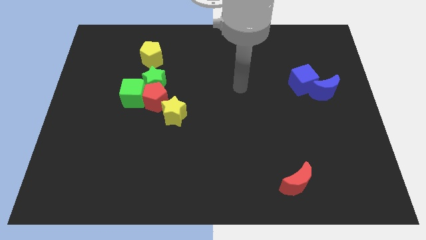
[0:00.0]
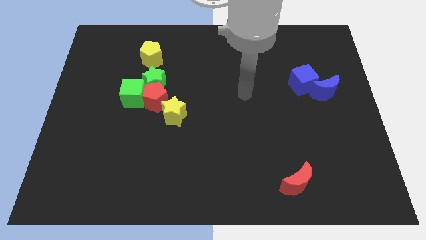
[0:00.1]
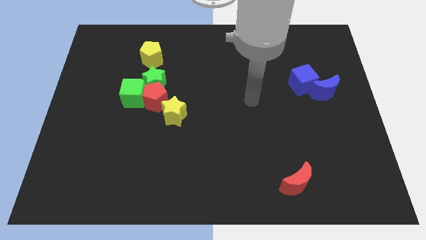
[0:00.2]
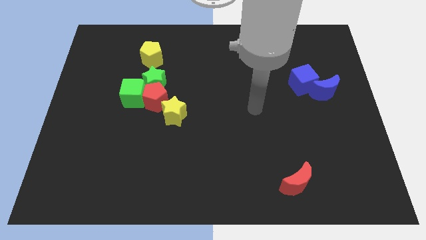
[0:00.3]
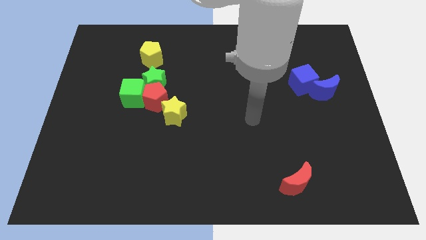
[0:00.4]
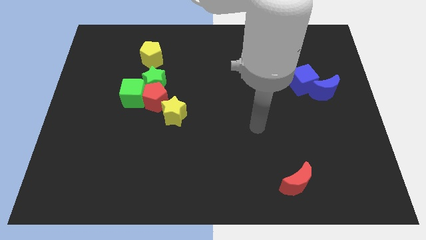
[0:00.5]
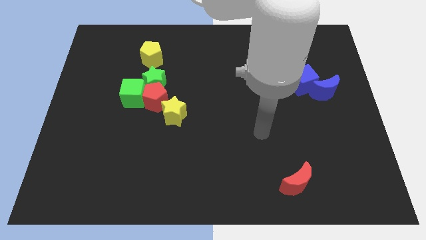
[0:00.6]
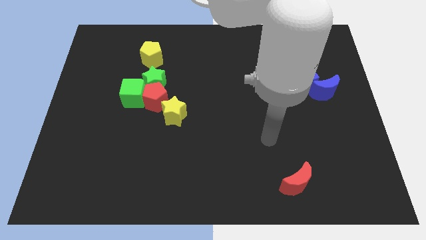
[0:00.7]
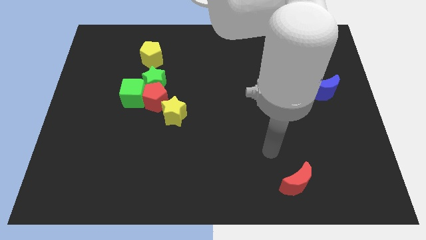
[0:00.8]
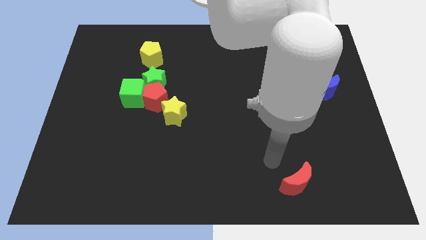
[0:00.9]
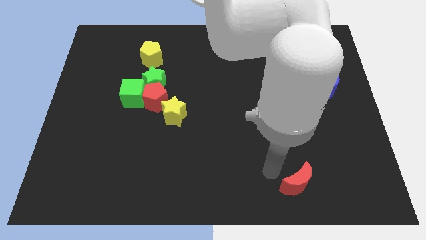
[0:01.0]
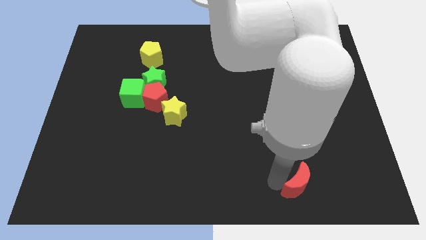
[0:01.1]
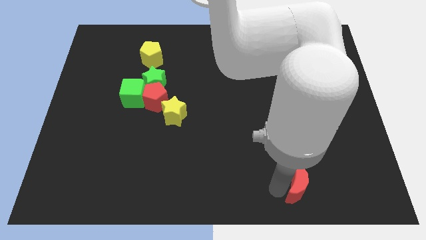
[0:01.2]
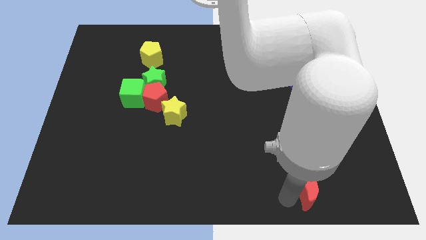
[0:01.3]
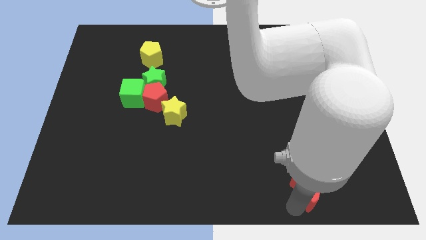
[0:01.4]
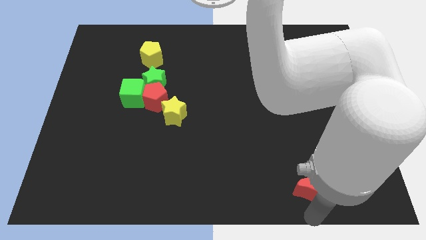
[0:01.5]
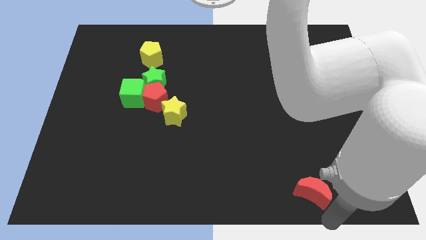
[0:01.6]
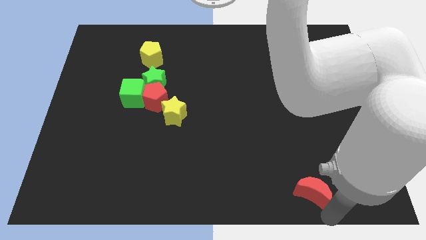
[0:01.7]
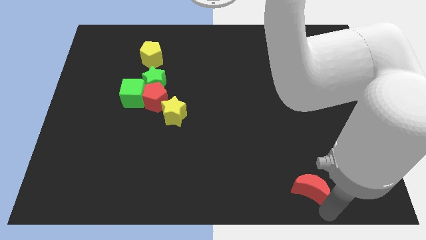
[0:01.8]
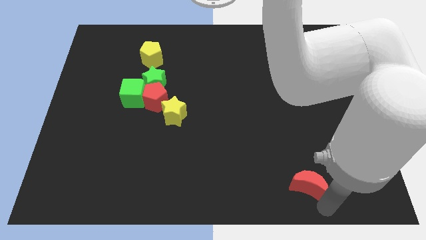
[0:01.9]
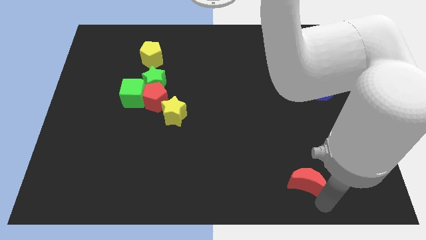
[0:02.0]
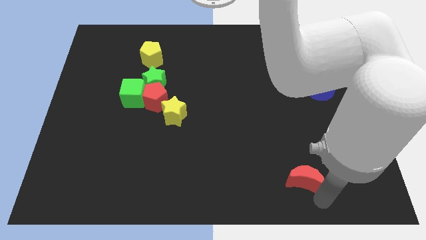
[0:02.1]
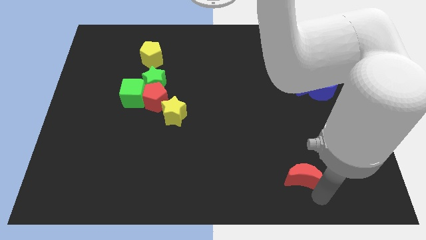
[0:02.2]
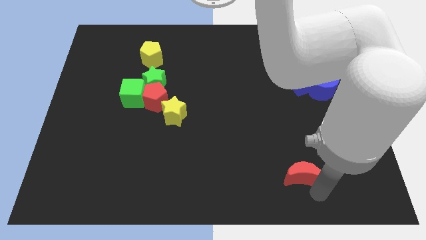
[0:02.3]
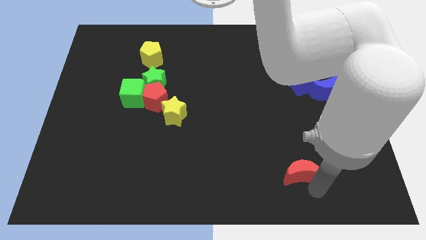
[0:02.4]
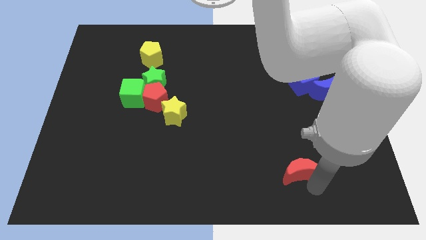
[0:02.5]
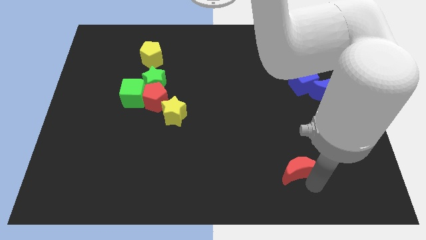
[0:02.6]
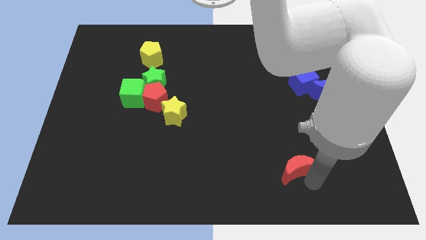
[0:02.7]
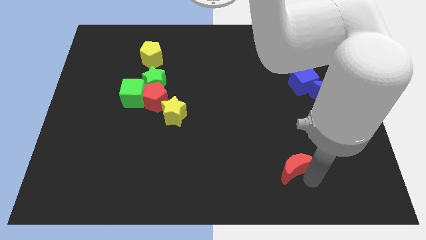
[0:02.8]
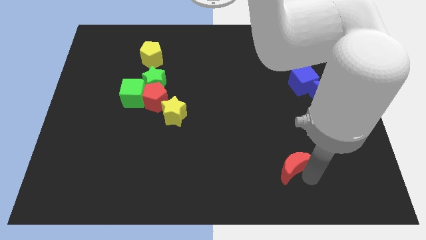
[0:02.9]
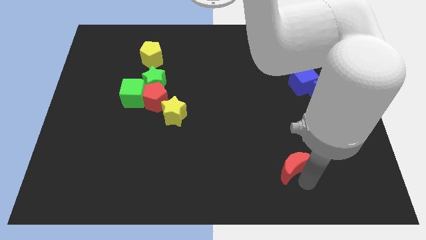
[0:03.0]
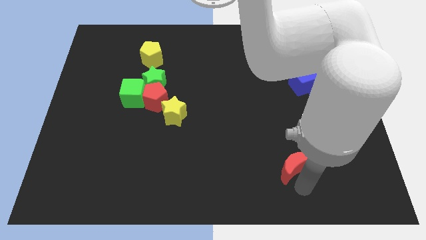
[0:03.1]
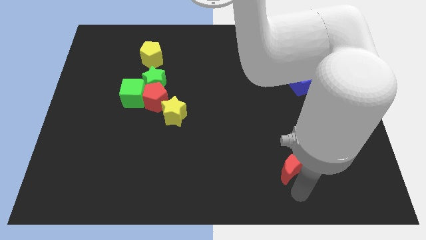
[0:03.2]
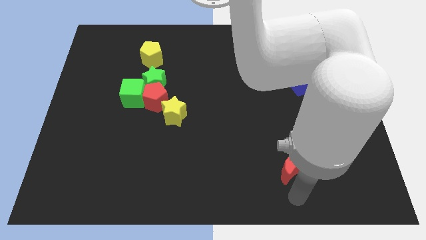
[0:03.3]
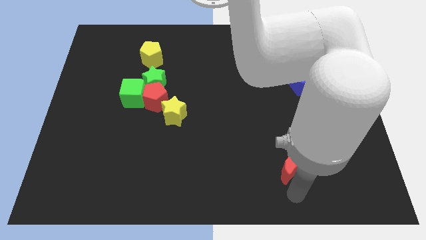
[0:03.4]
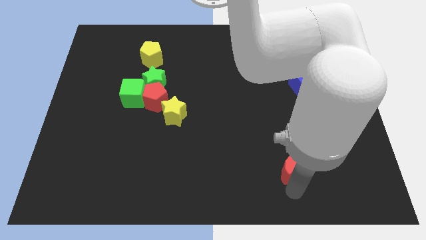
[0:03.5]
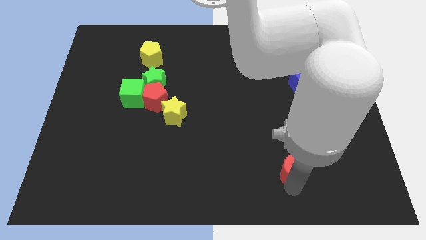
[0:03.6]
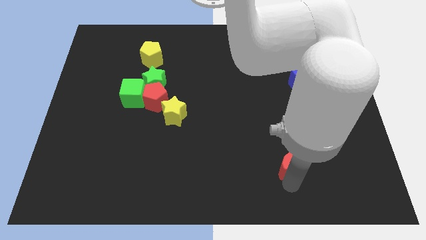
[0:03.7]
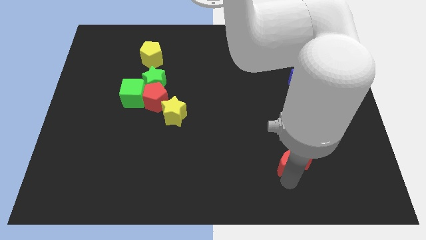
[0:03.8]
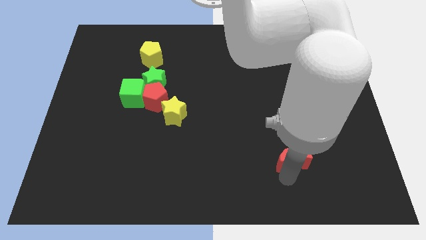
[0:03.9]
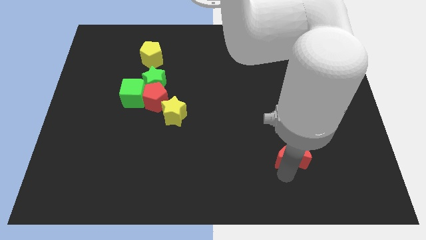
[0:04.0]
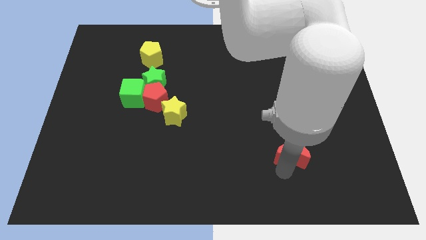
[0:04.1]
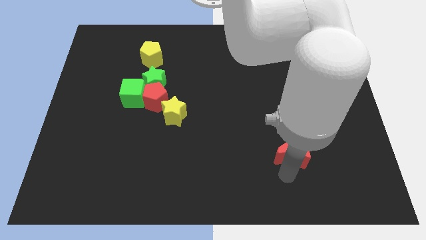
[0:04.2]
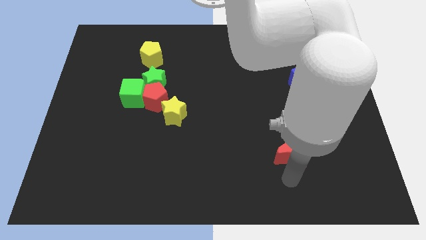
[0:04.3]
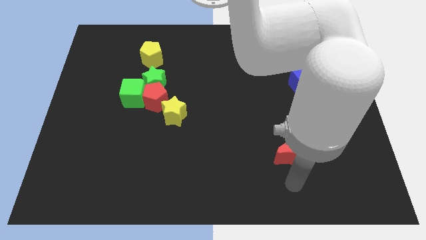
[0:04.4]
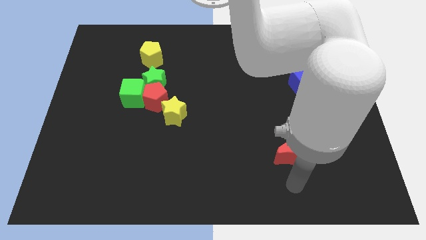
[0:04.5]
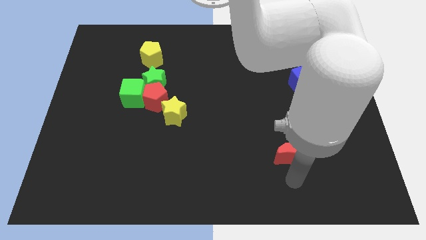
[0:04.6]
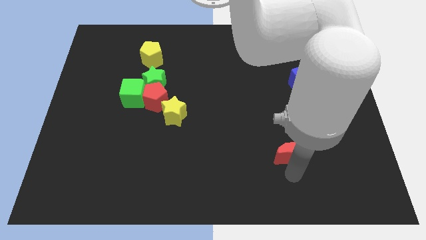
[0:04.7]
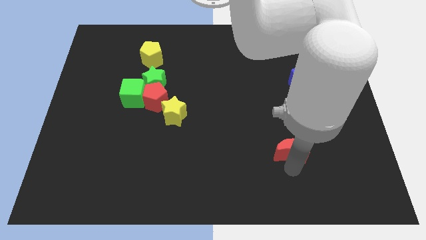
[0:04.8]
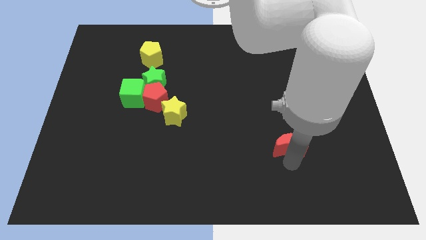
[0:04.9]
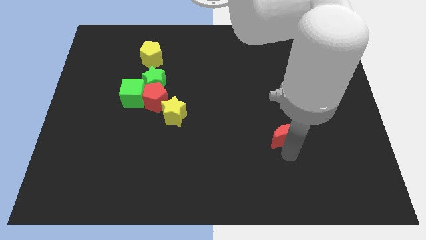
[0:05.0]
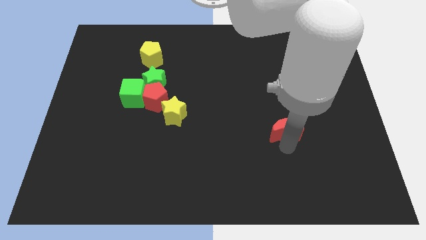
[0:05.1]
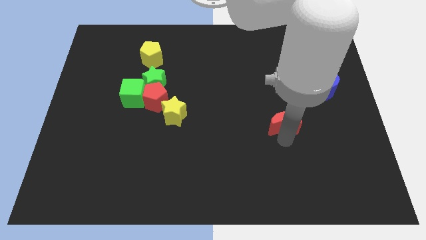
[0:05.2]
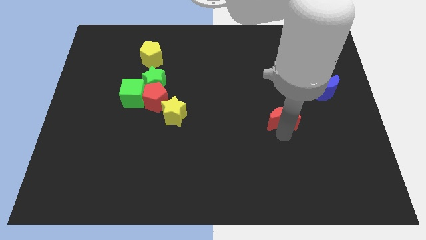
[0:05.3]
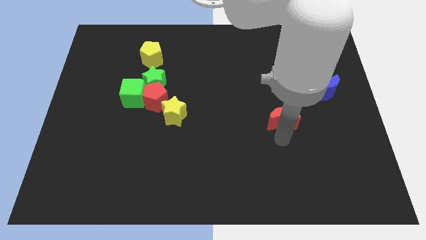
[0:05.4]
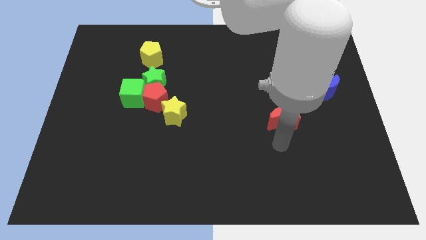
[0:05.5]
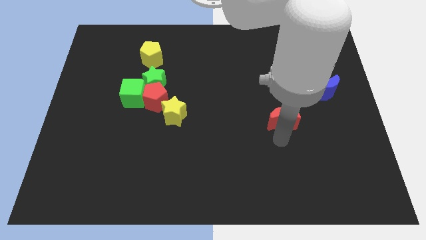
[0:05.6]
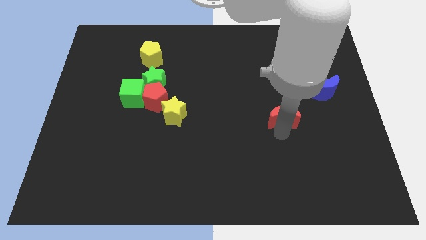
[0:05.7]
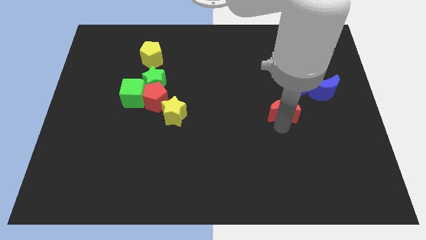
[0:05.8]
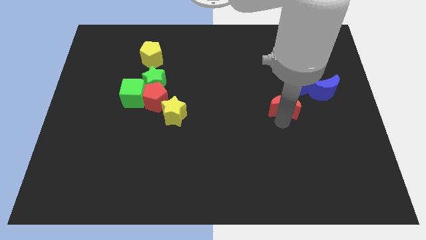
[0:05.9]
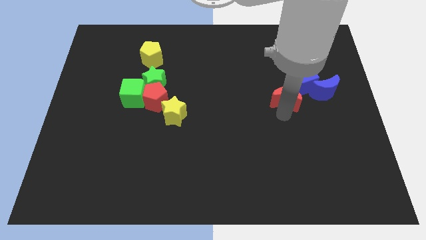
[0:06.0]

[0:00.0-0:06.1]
push the red moon up

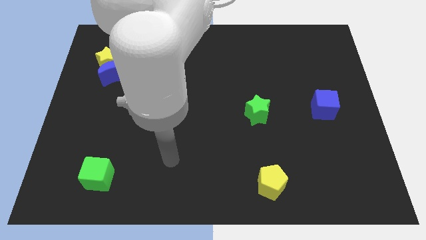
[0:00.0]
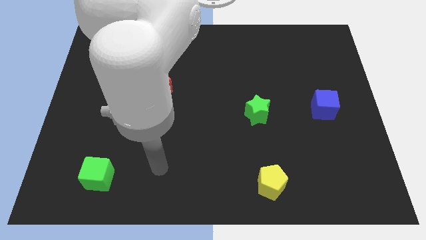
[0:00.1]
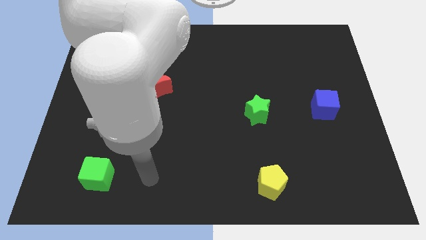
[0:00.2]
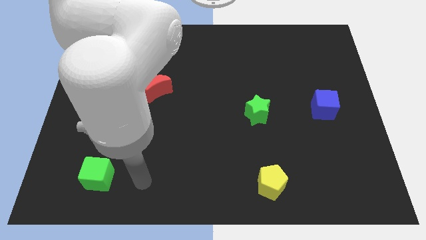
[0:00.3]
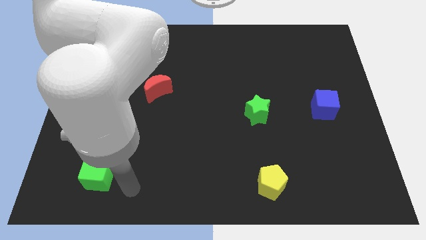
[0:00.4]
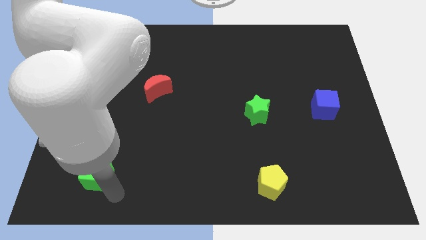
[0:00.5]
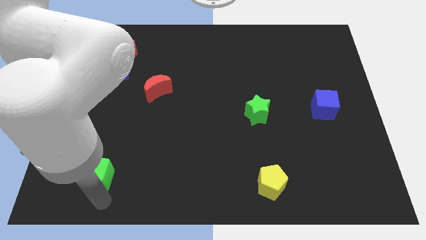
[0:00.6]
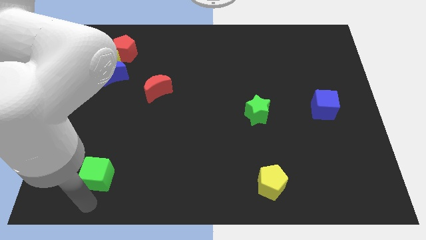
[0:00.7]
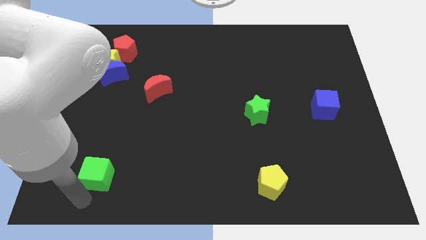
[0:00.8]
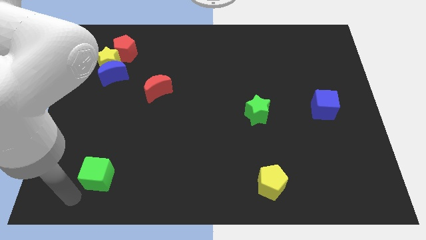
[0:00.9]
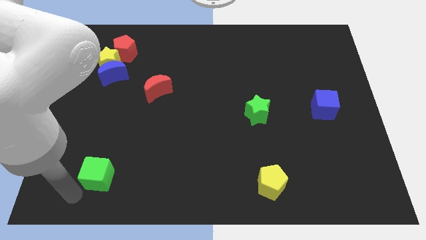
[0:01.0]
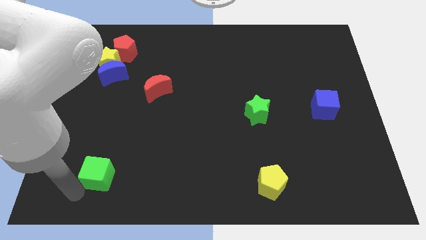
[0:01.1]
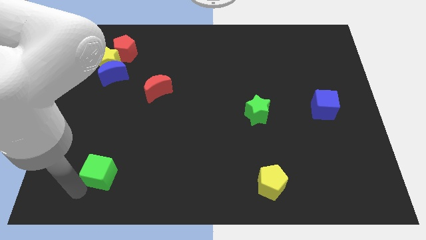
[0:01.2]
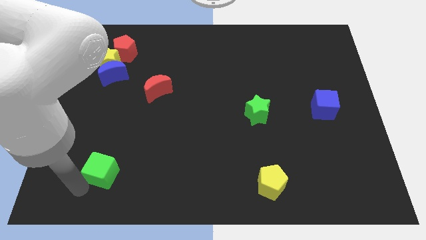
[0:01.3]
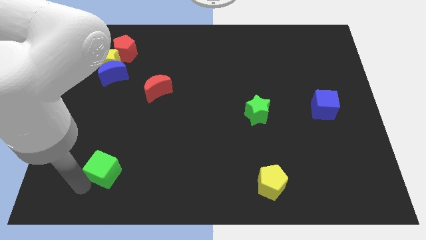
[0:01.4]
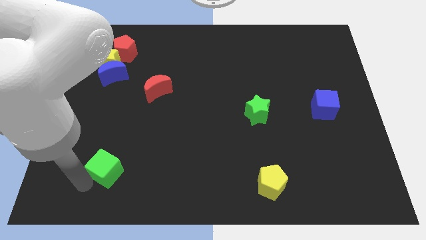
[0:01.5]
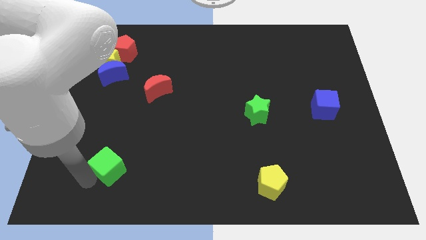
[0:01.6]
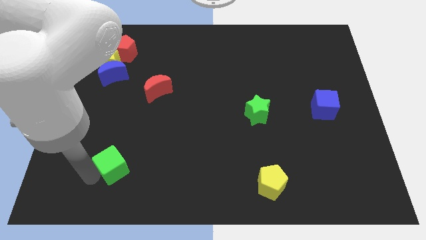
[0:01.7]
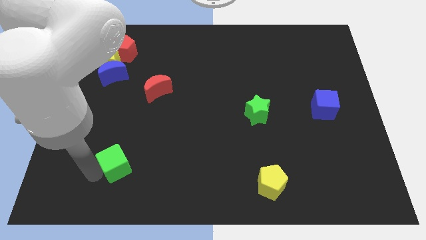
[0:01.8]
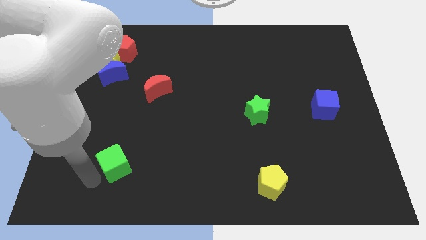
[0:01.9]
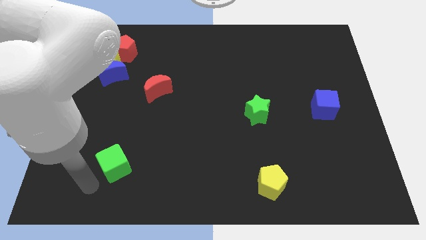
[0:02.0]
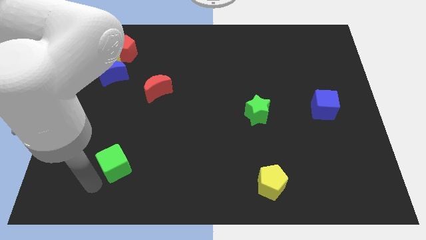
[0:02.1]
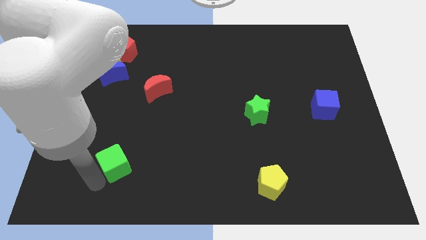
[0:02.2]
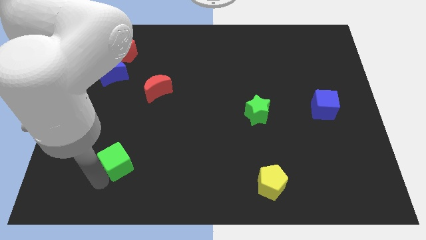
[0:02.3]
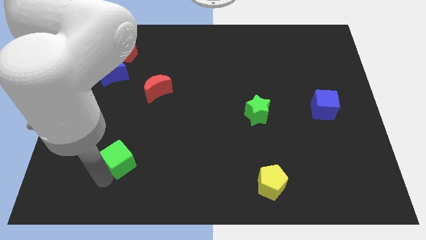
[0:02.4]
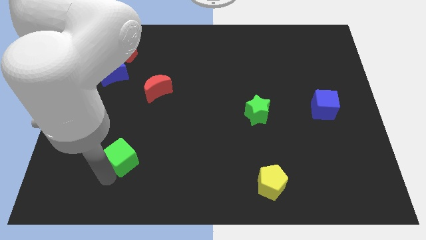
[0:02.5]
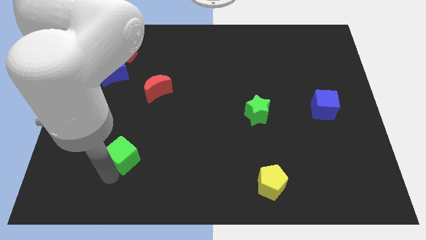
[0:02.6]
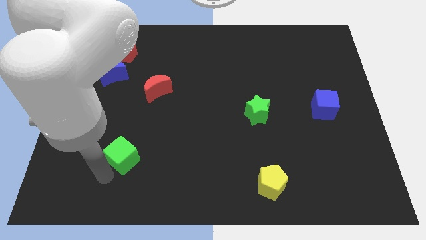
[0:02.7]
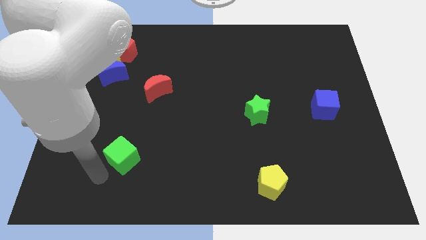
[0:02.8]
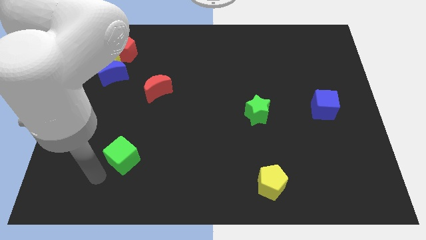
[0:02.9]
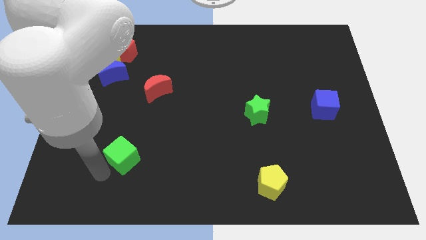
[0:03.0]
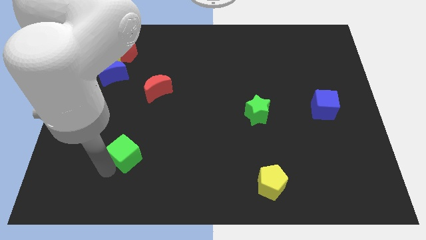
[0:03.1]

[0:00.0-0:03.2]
slide the green cube diagonally upwards and right a bit
